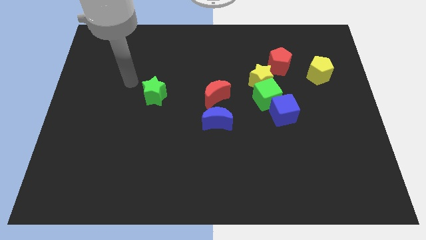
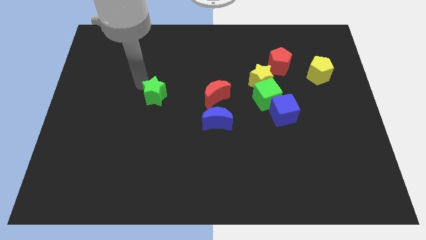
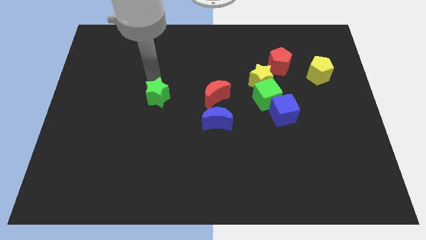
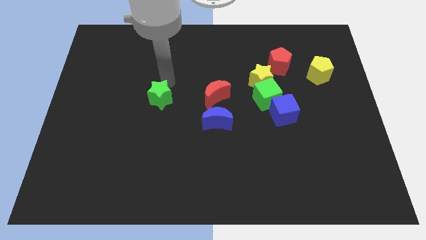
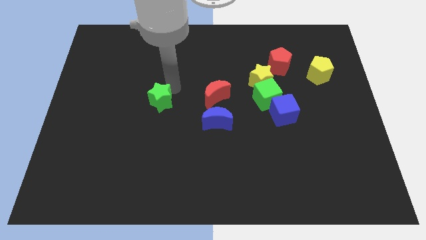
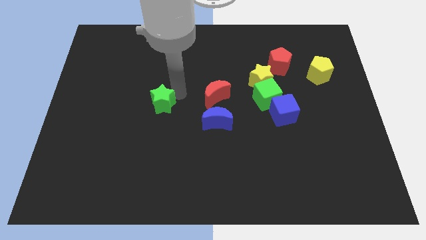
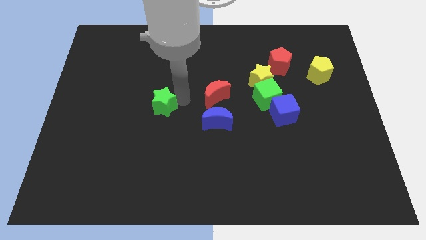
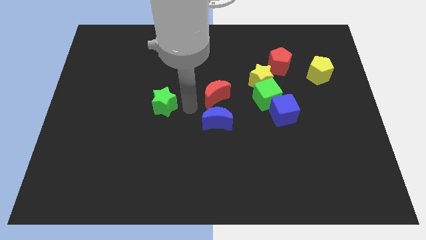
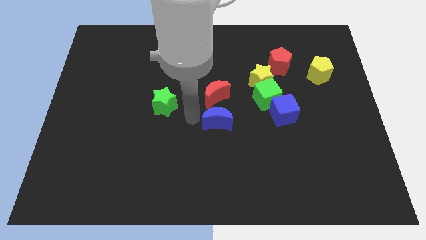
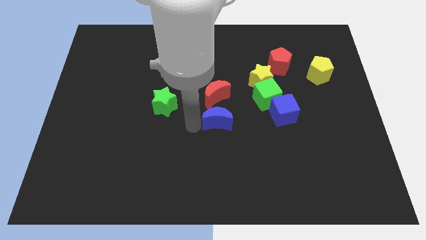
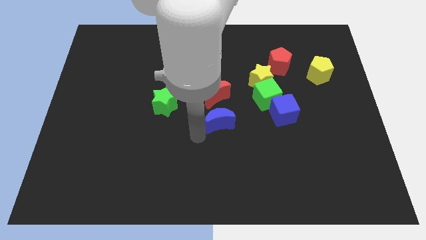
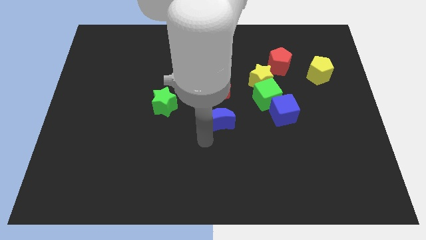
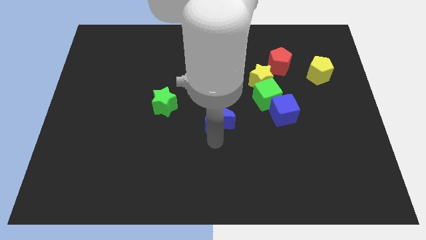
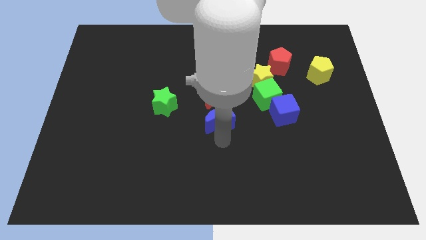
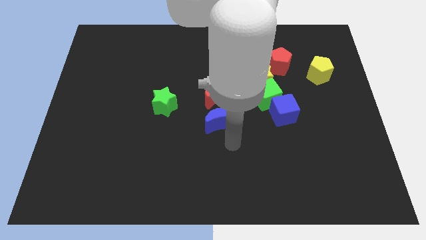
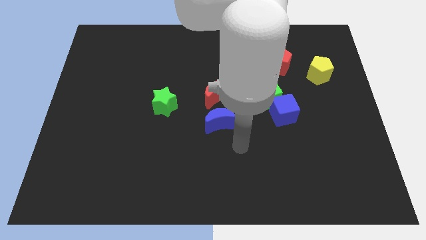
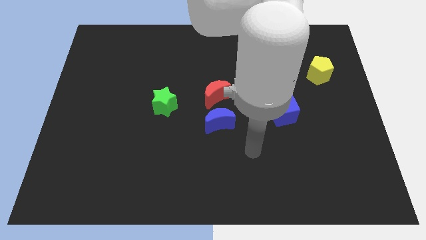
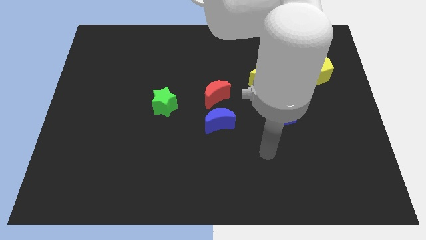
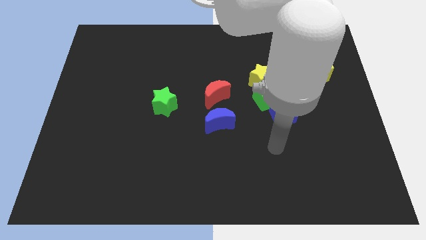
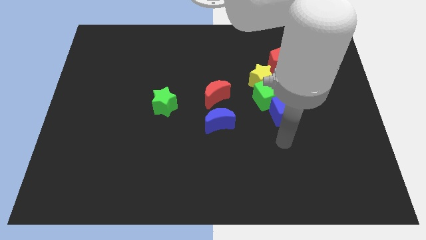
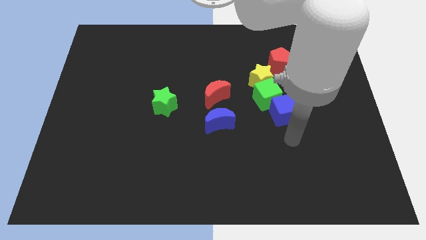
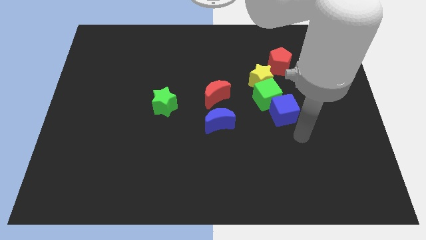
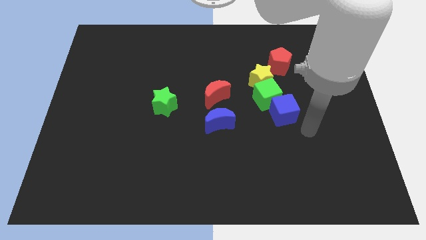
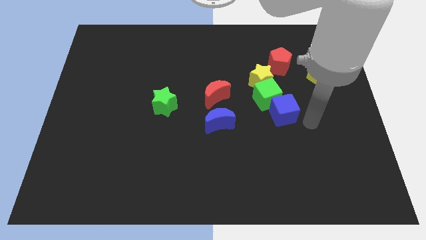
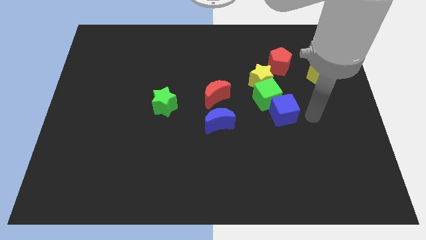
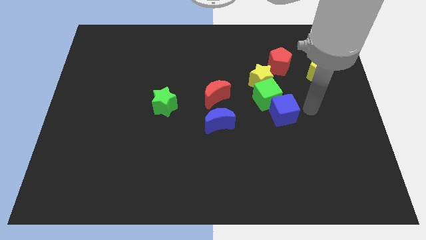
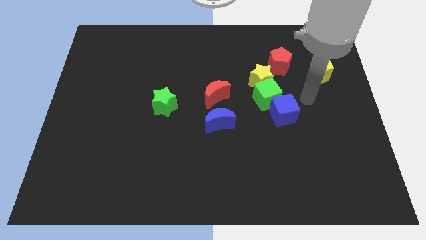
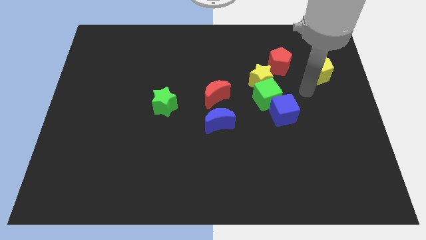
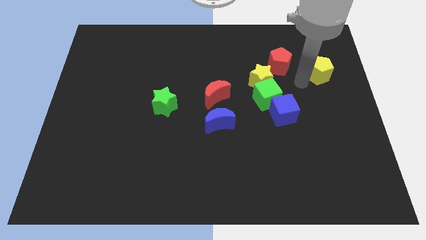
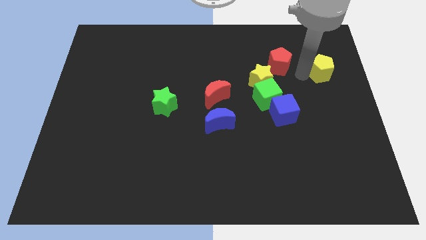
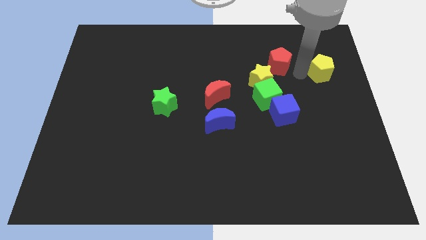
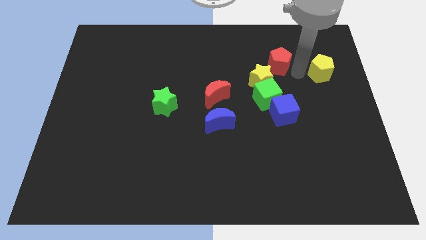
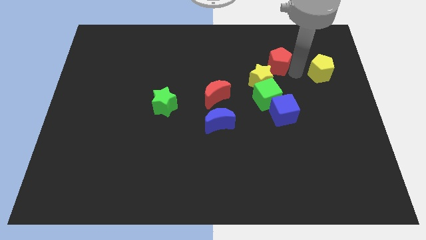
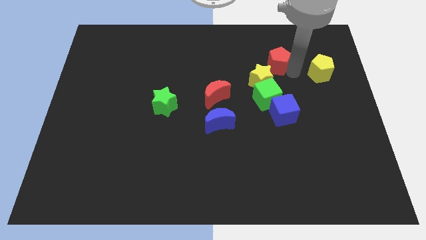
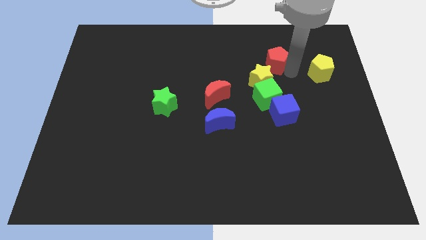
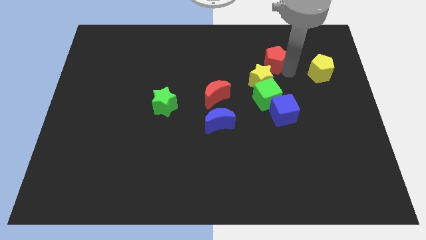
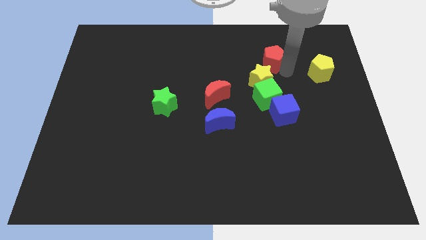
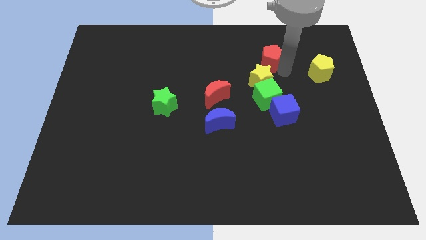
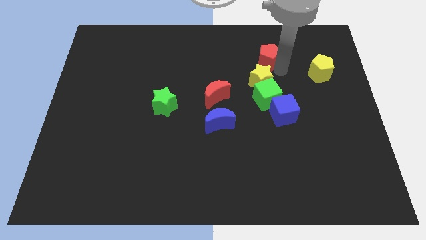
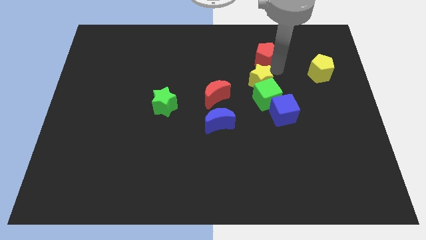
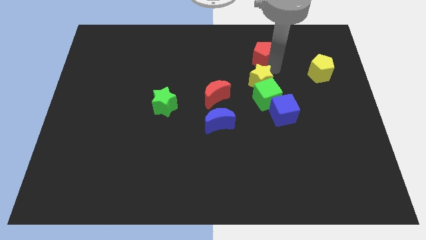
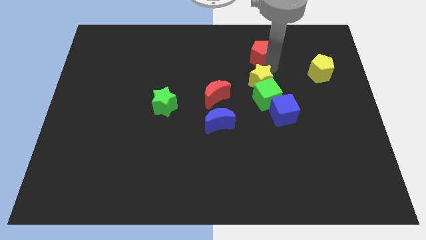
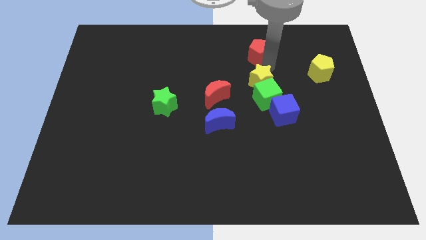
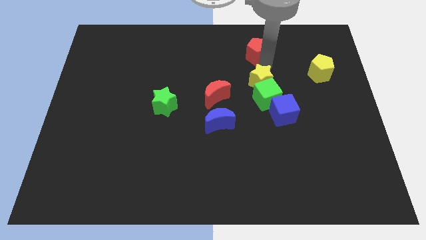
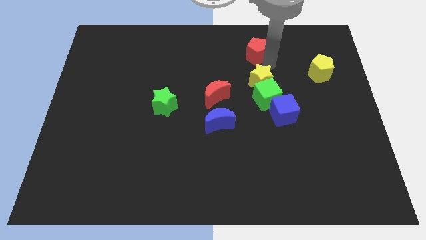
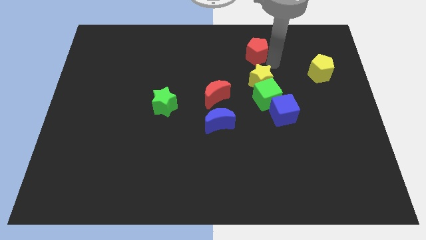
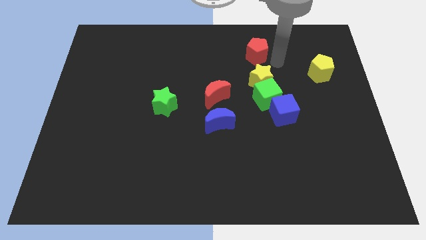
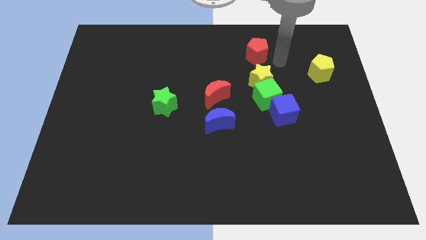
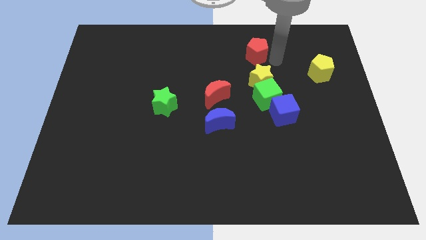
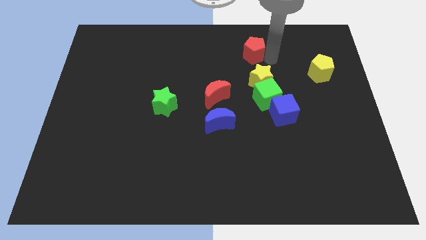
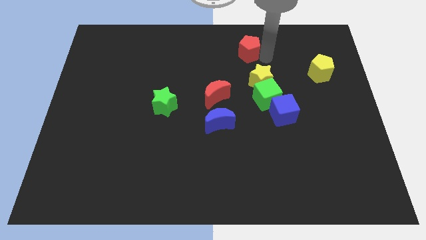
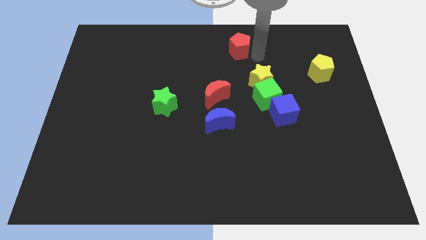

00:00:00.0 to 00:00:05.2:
put the red pentagon to the towards your base

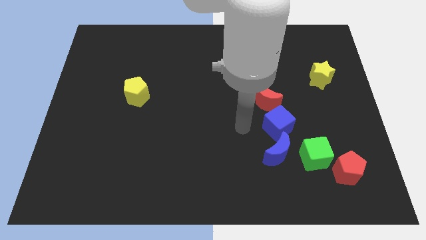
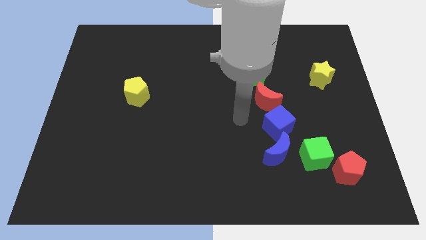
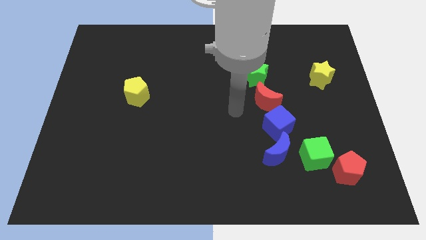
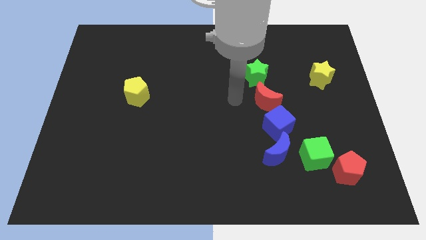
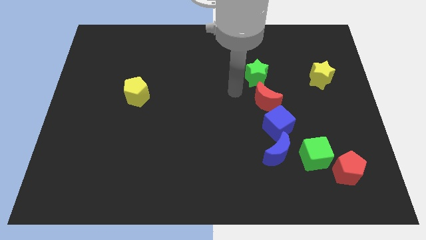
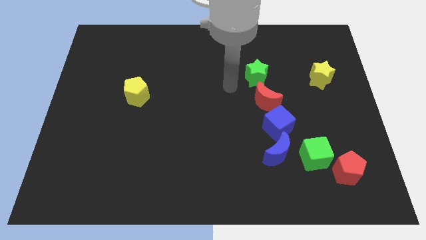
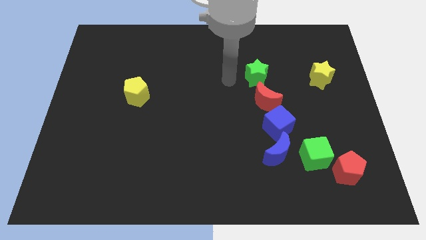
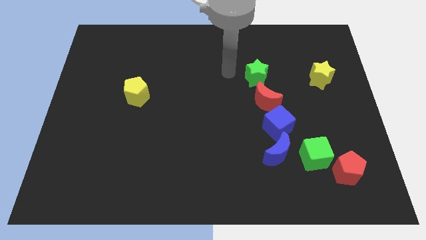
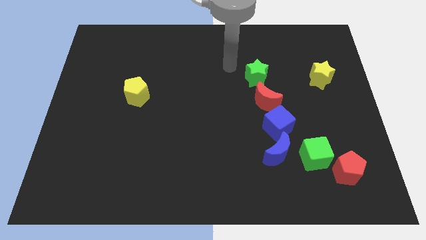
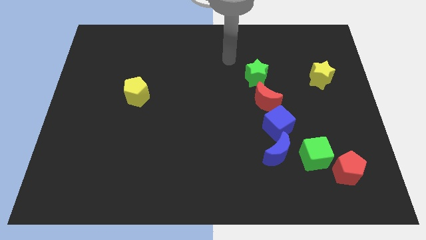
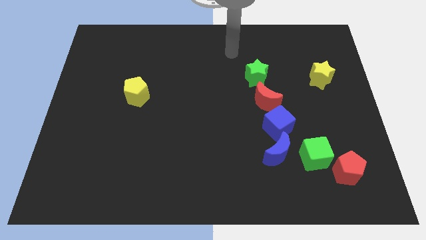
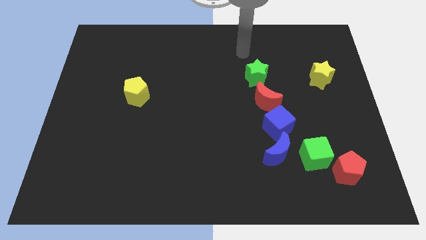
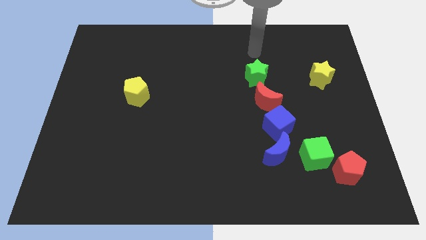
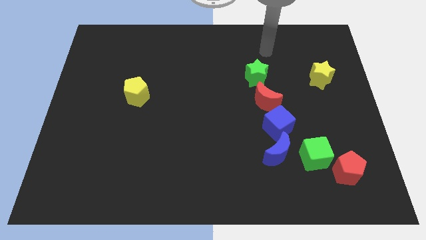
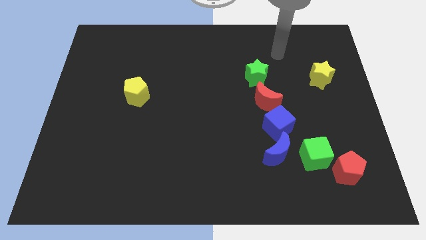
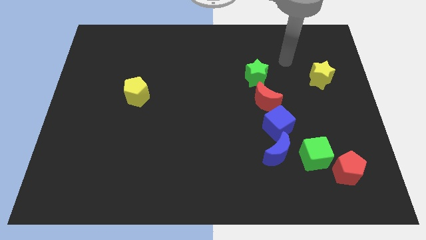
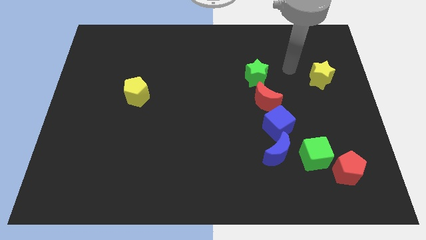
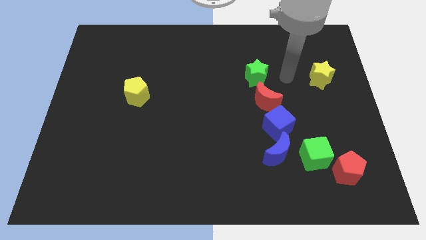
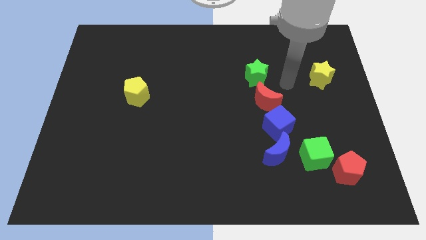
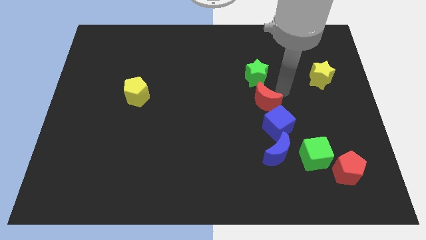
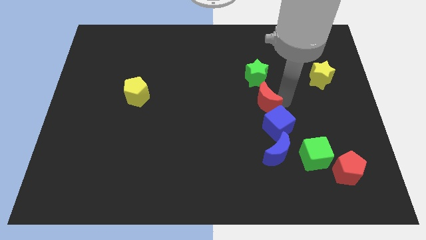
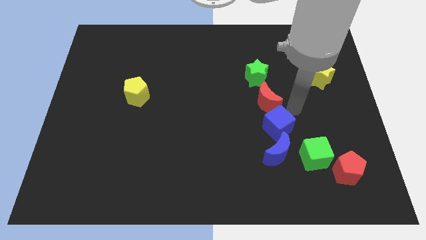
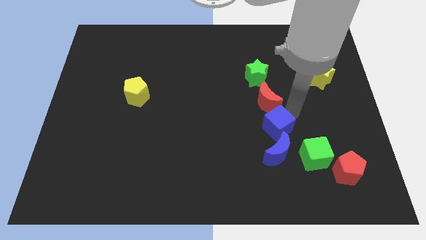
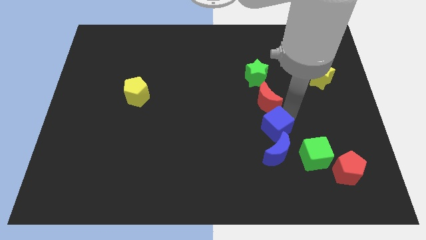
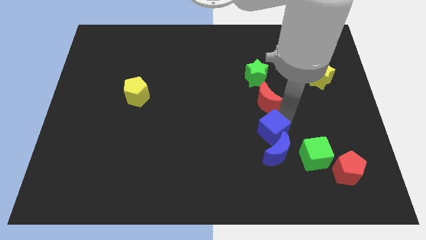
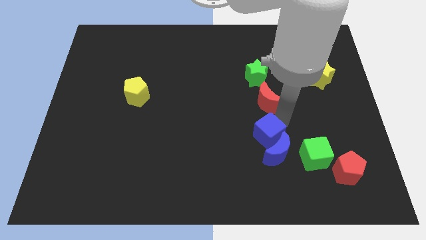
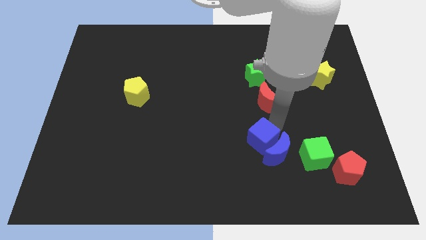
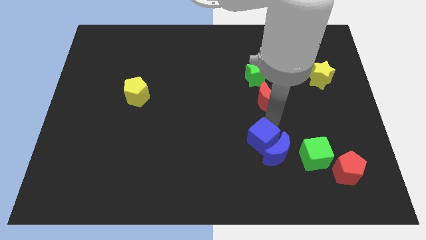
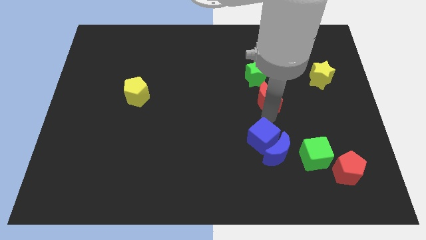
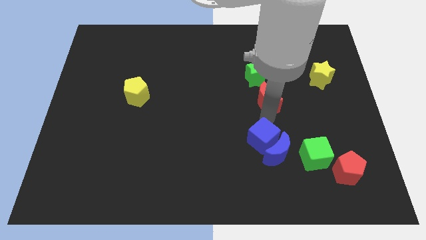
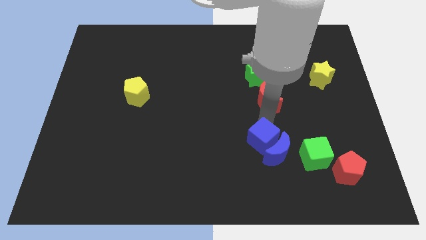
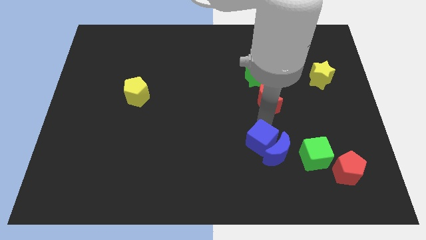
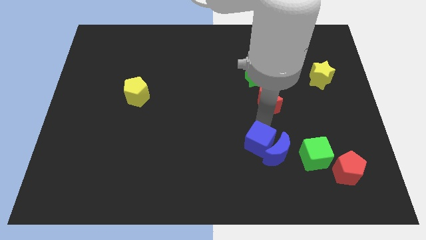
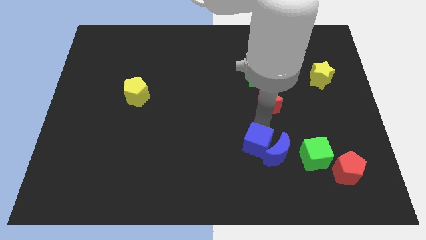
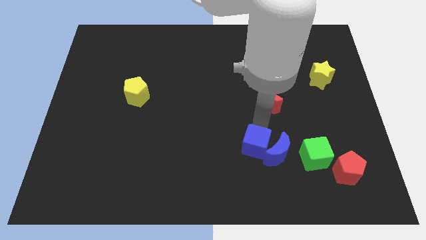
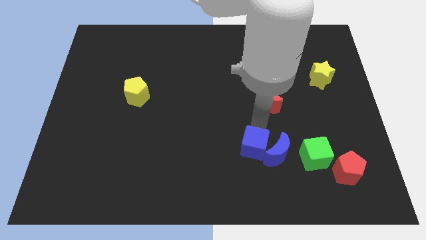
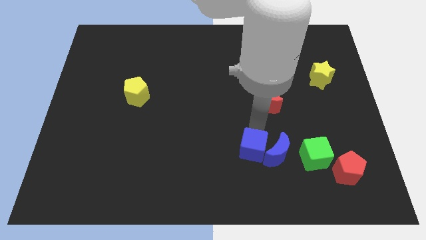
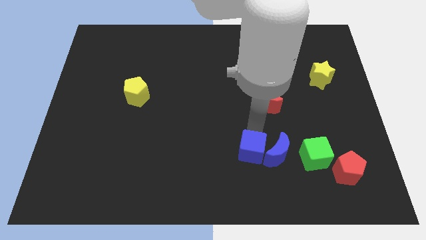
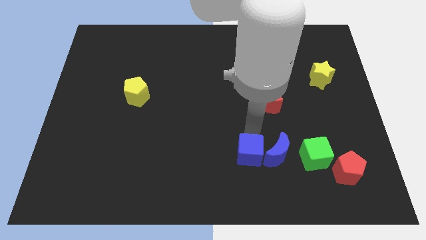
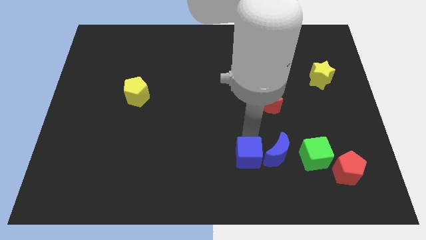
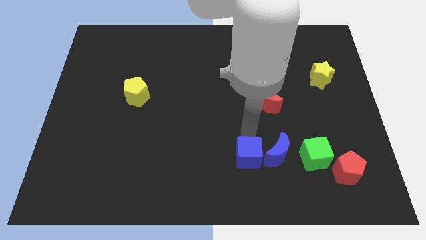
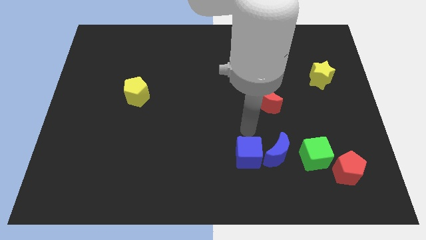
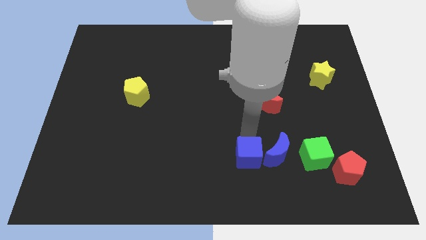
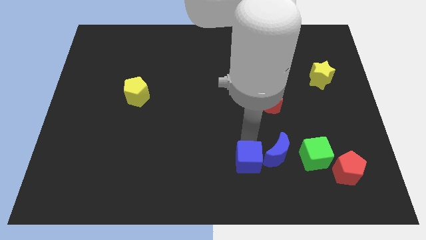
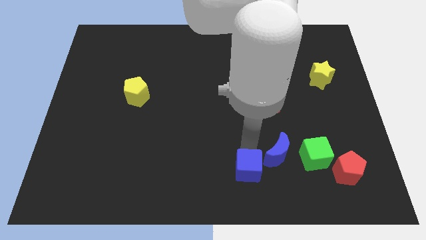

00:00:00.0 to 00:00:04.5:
push the blue cube to the bottom
